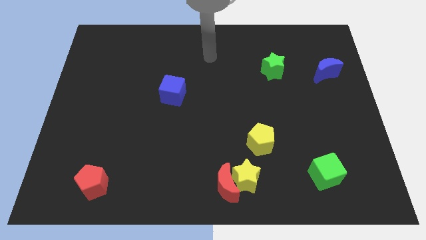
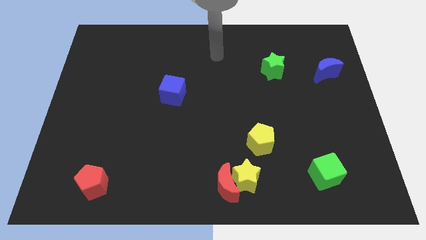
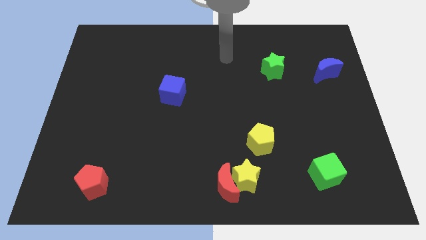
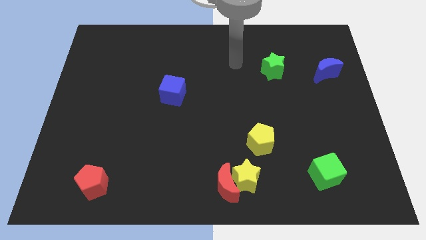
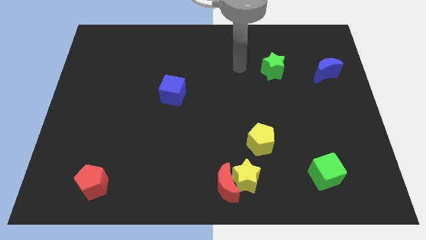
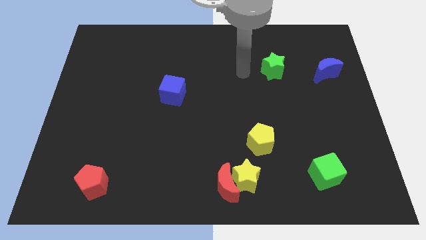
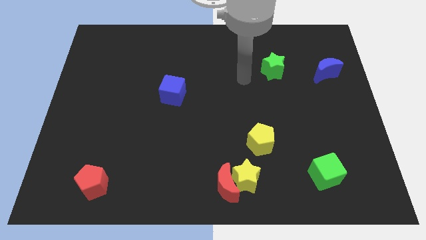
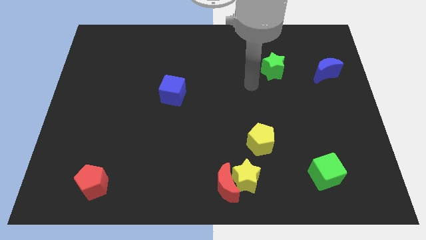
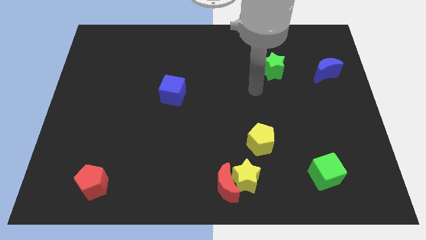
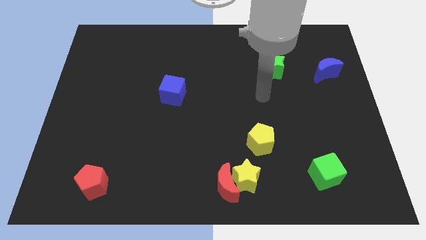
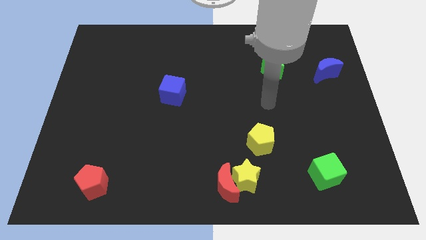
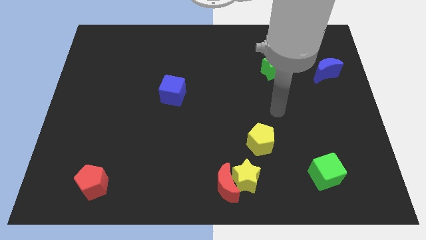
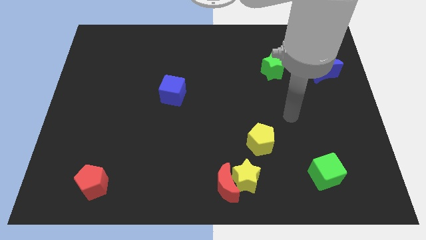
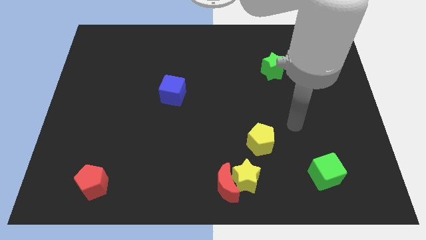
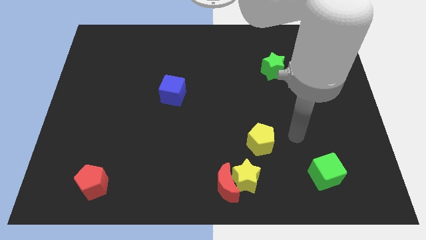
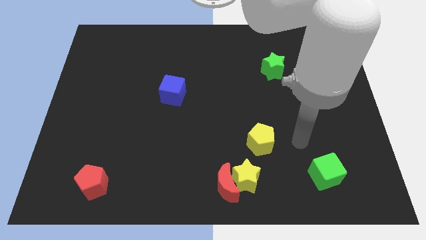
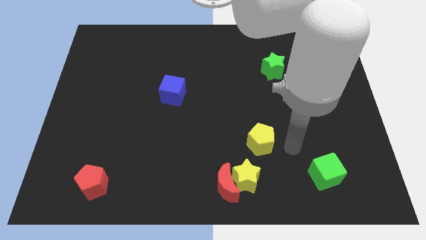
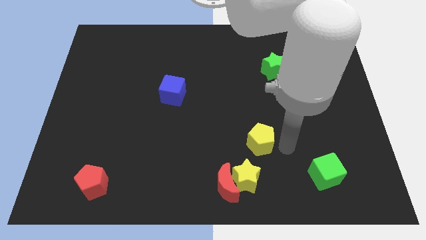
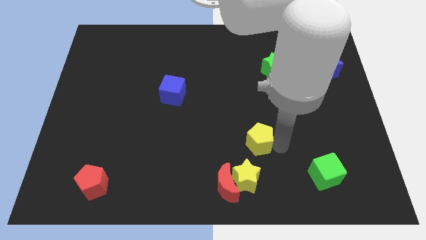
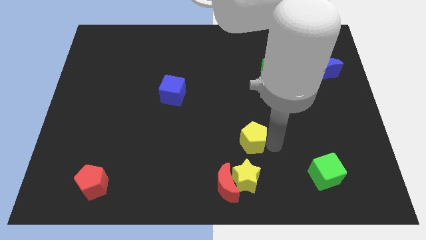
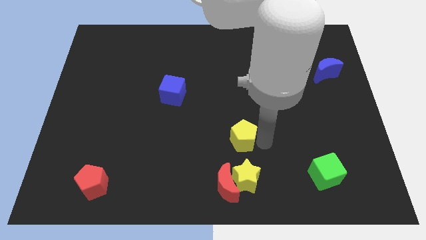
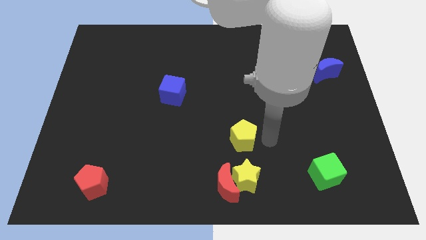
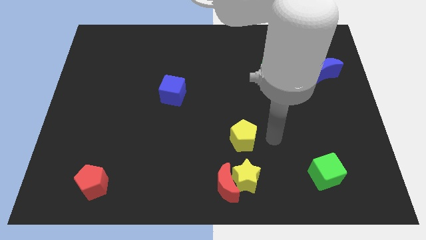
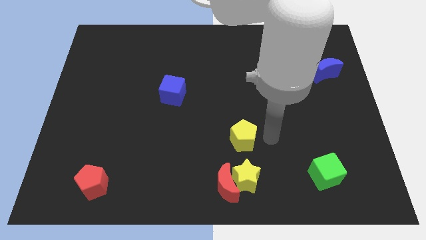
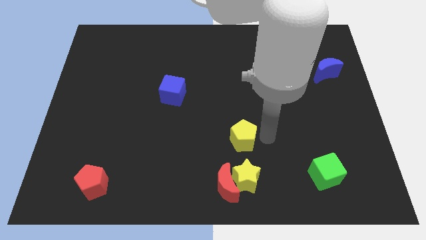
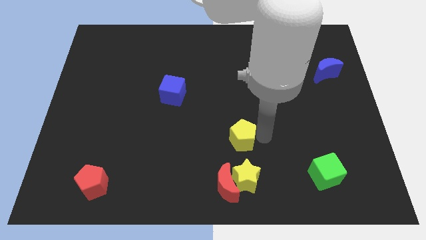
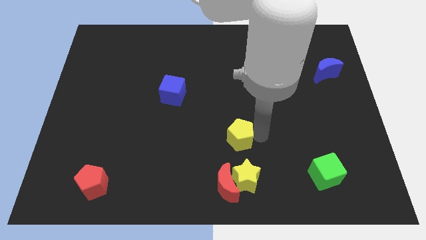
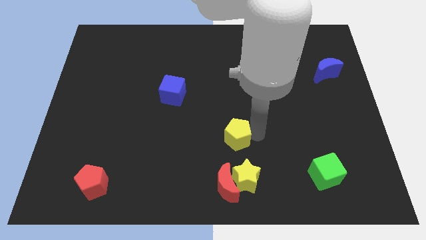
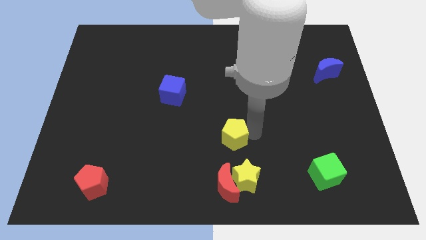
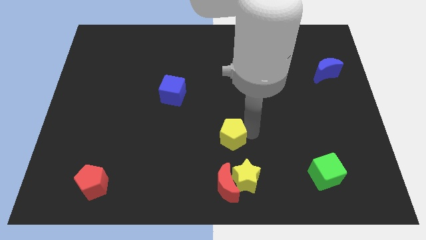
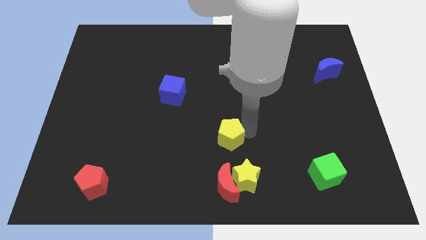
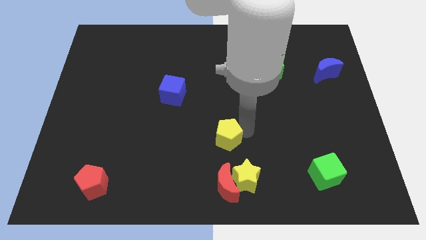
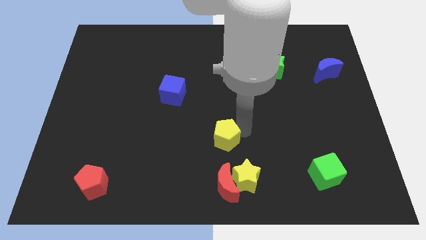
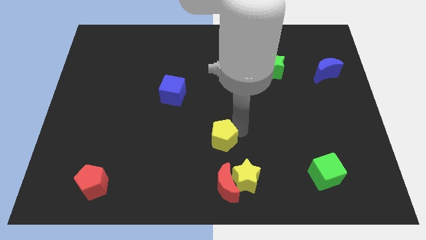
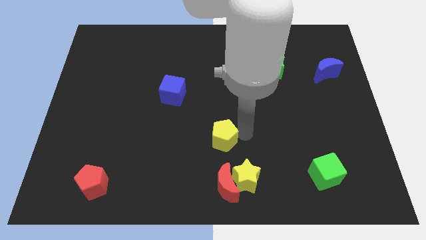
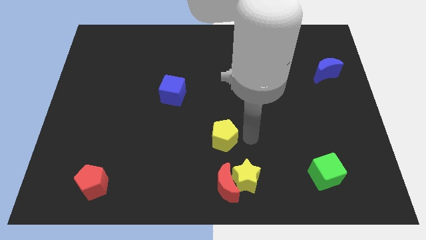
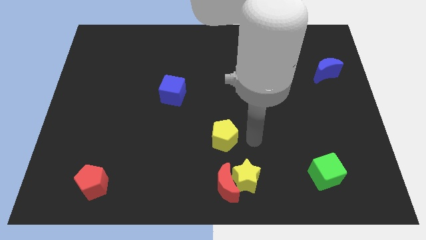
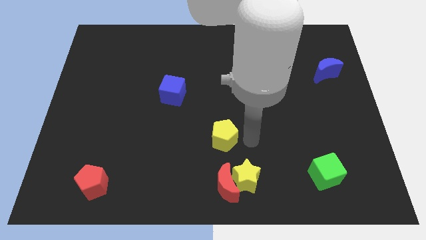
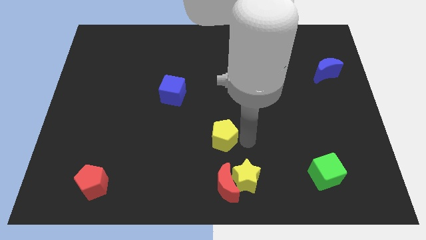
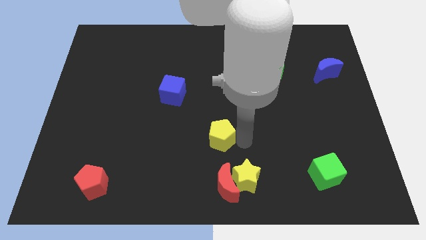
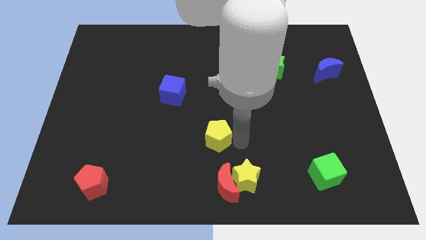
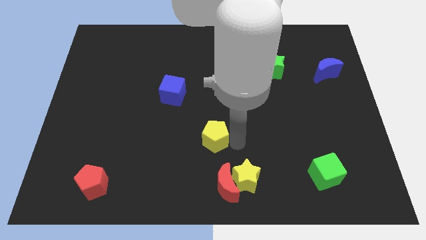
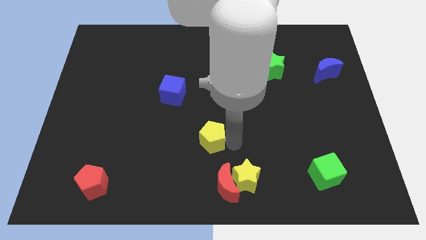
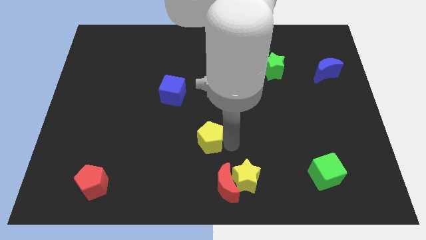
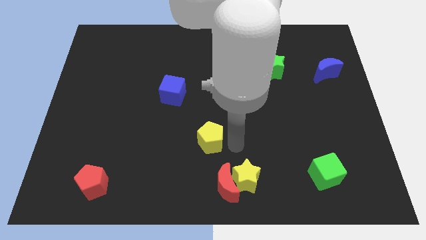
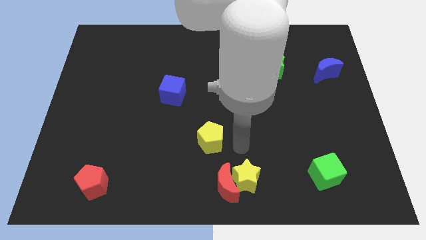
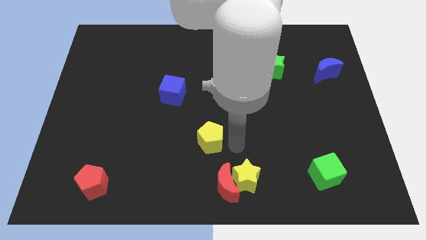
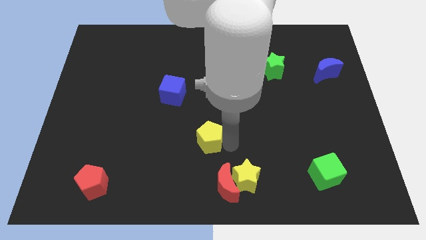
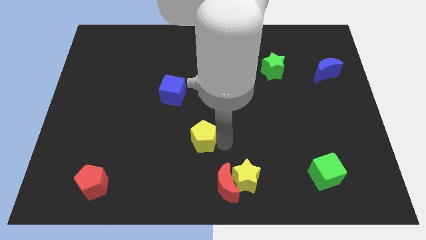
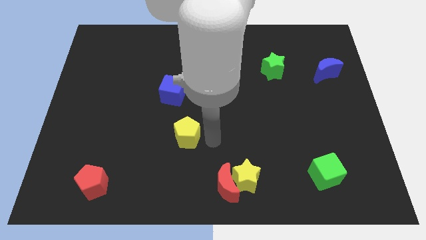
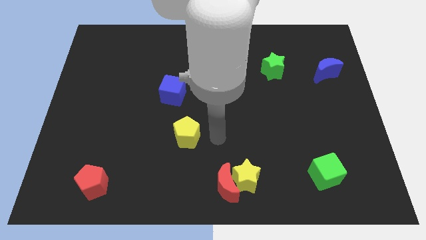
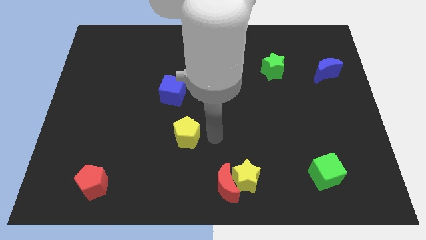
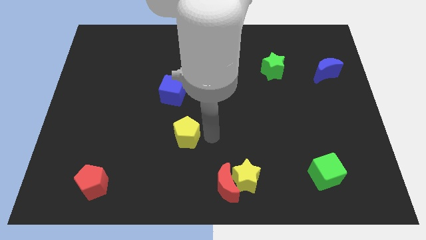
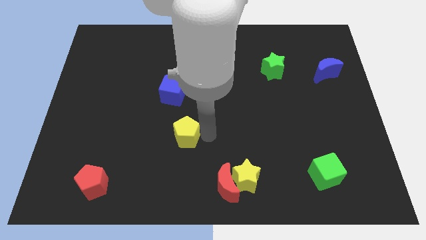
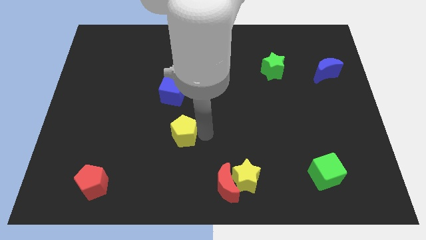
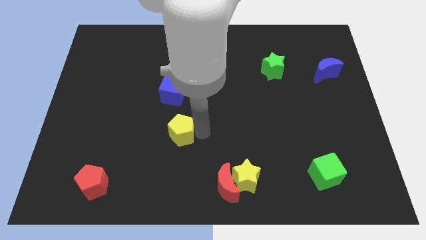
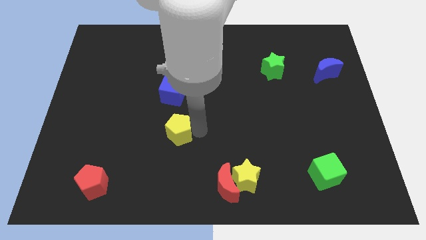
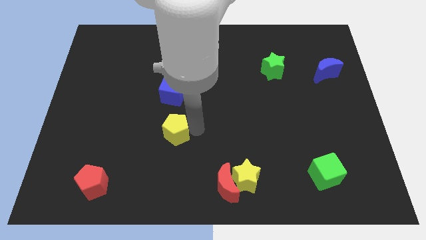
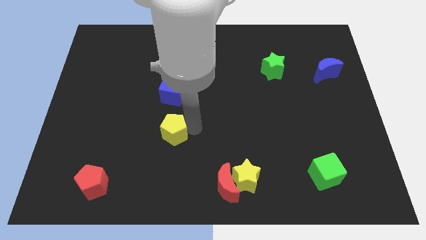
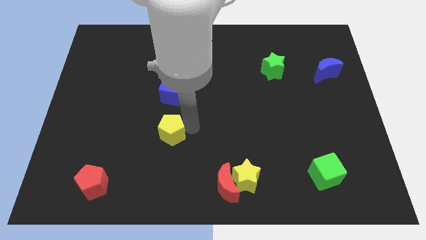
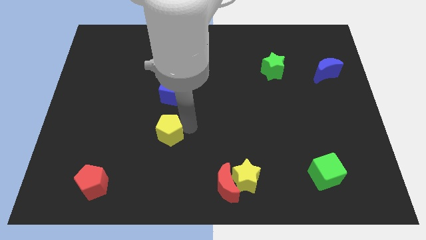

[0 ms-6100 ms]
push the yellow pentagon to the left

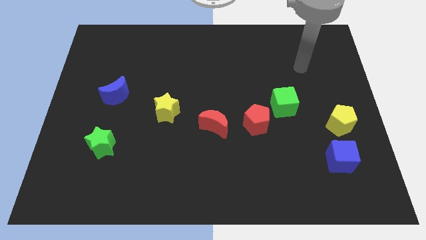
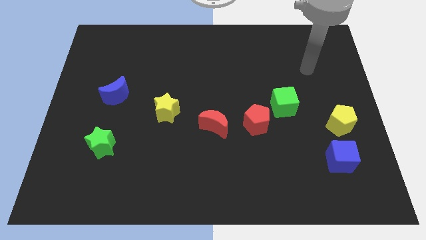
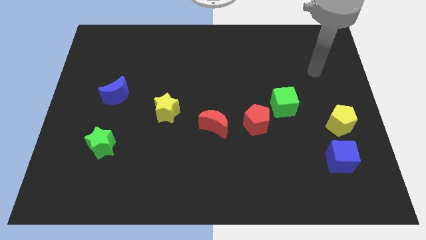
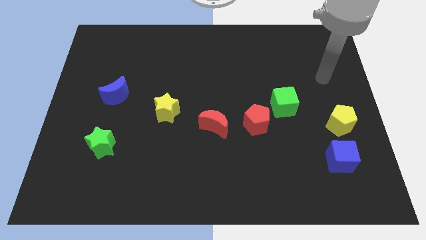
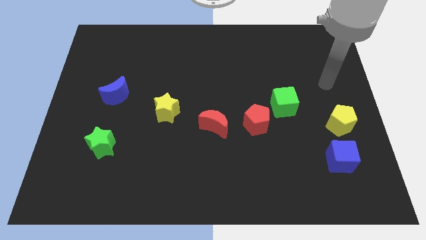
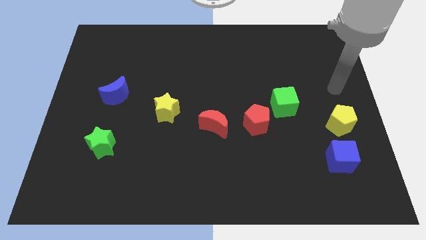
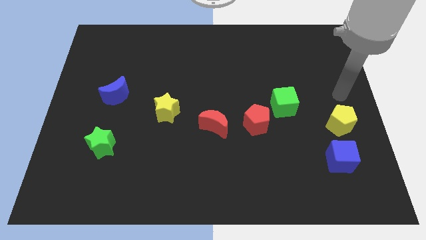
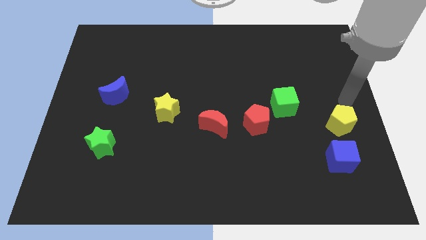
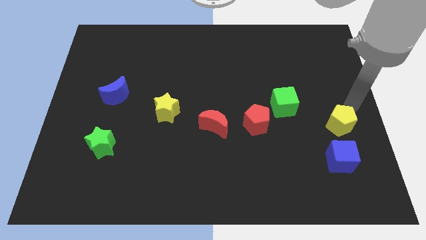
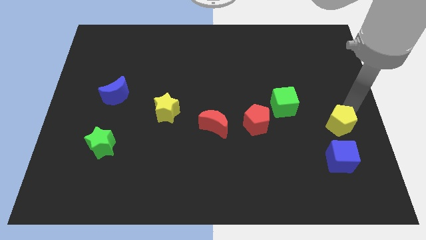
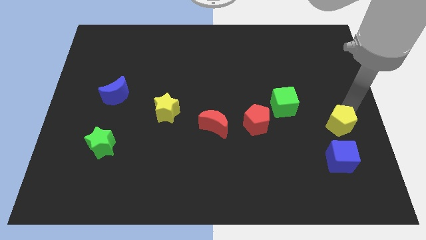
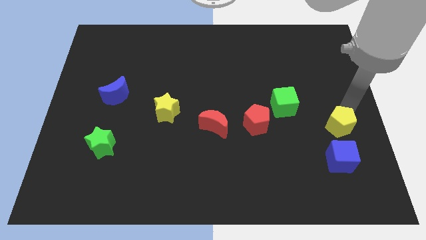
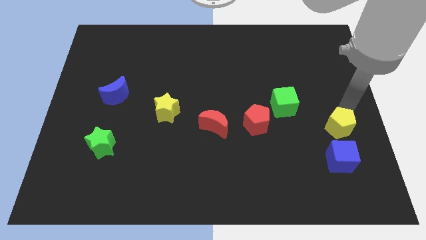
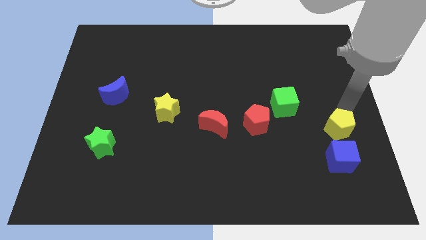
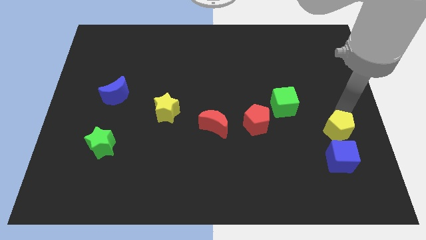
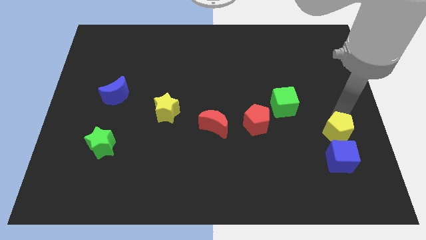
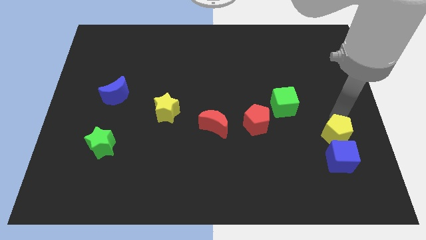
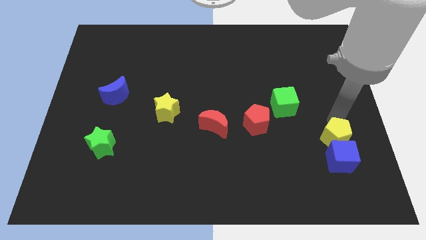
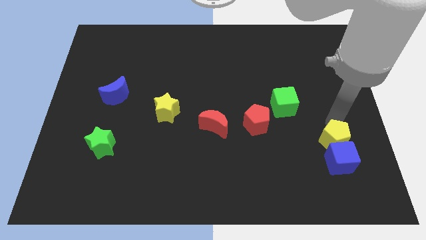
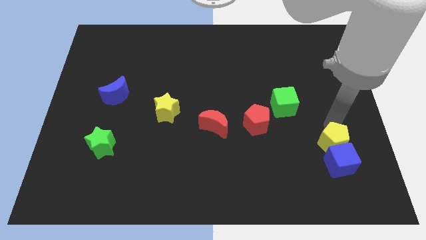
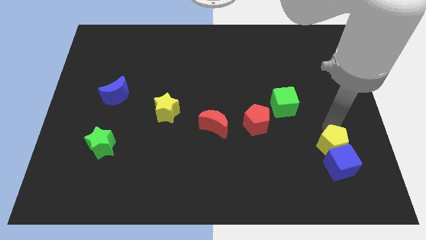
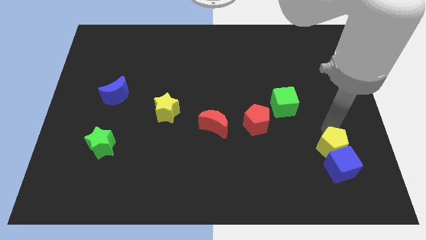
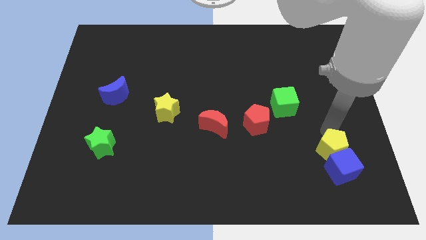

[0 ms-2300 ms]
move the yellow pentagon somewhat downwards and then left

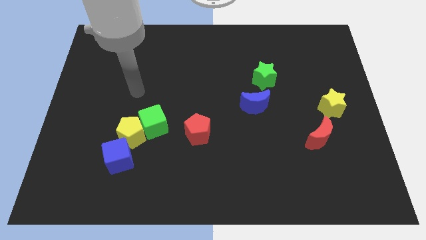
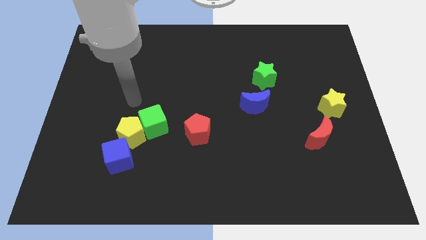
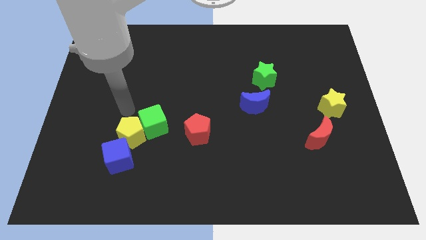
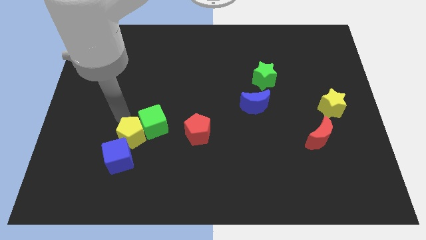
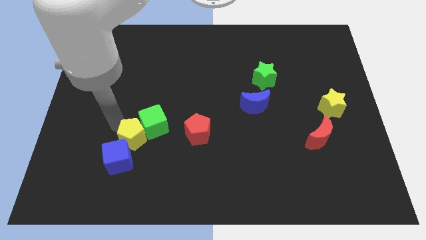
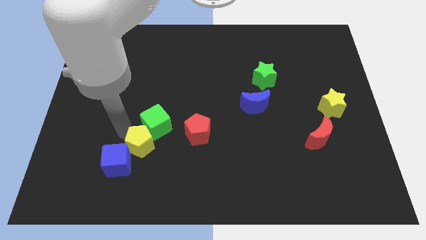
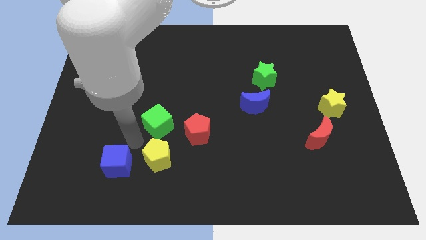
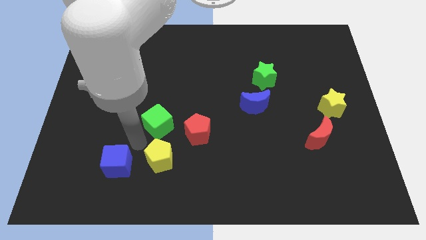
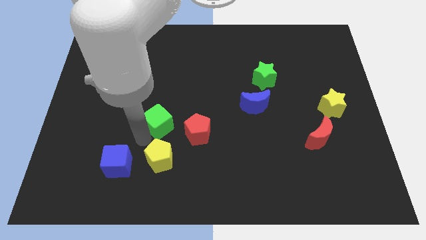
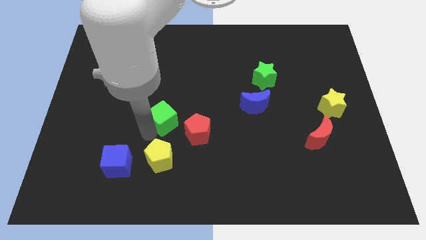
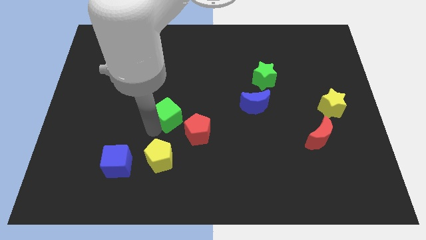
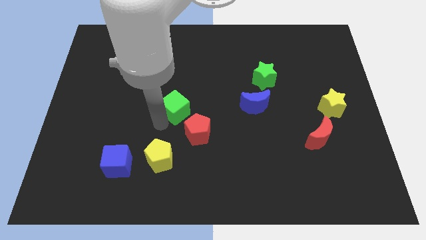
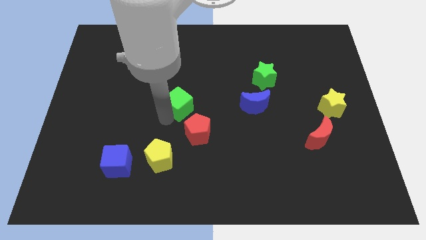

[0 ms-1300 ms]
move the green cube upwards and to the right a little bit
